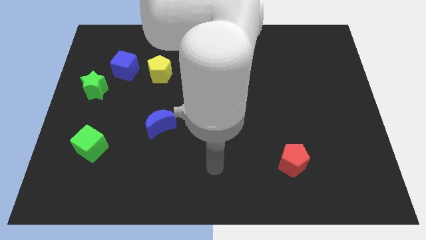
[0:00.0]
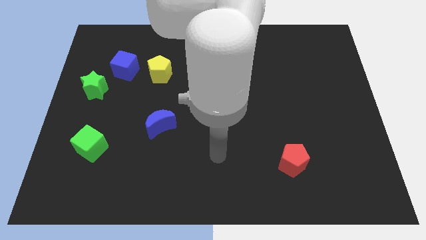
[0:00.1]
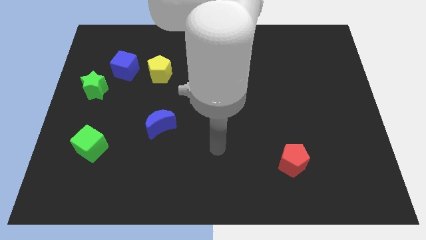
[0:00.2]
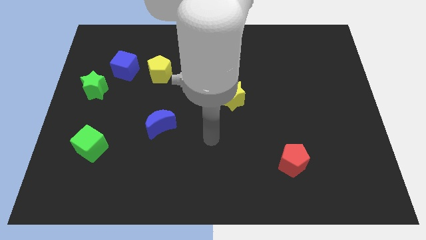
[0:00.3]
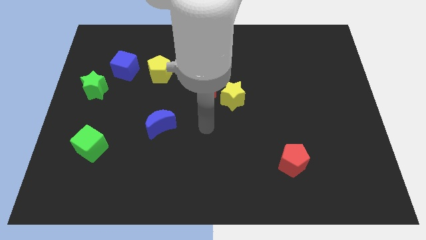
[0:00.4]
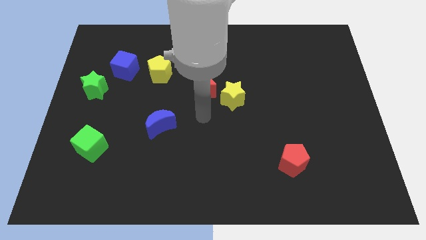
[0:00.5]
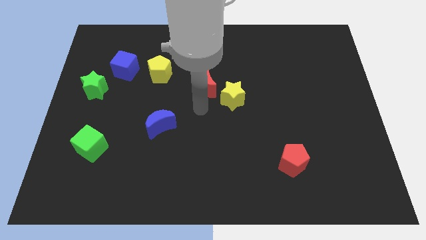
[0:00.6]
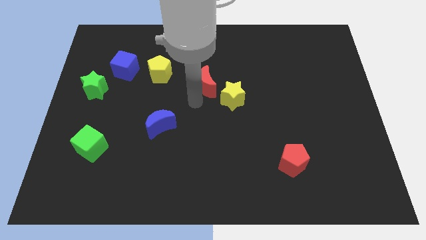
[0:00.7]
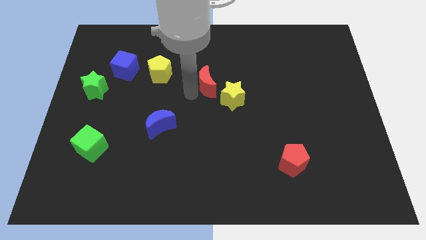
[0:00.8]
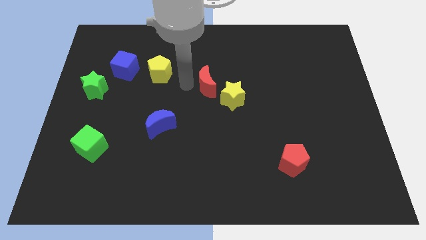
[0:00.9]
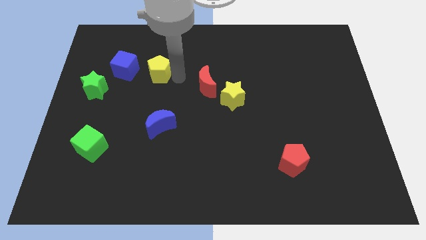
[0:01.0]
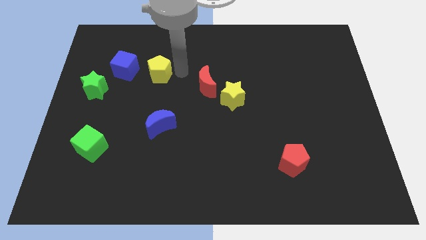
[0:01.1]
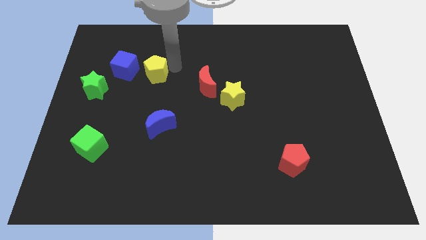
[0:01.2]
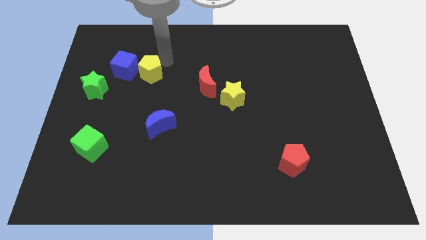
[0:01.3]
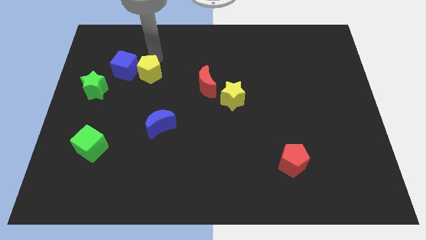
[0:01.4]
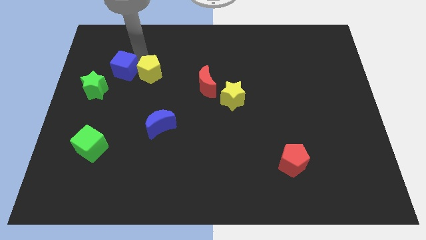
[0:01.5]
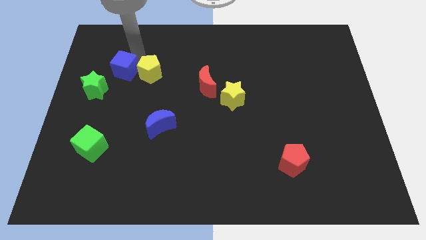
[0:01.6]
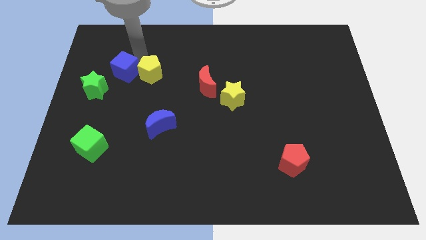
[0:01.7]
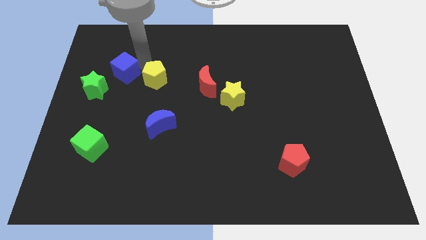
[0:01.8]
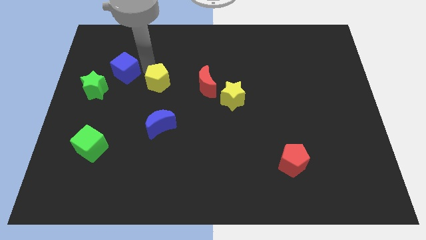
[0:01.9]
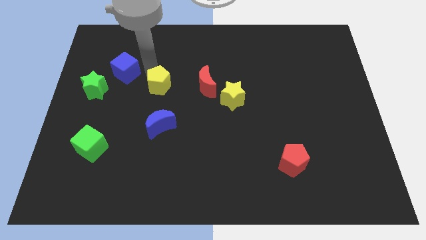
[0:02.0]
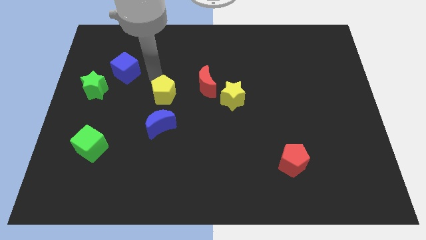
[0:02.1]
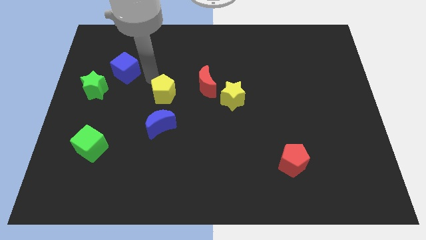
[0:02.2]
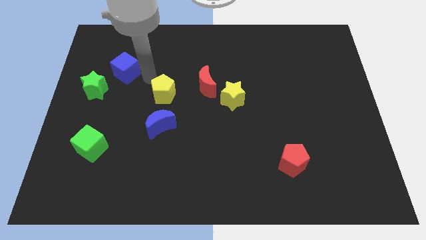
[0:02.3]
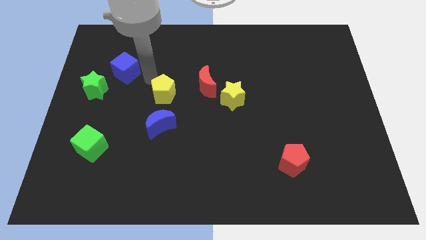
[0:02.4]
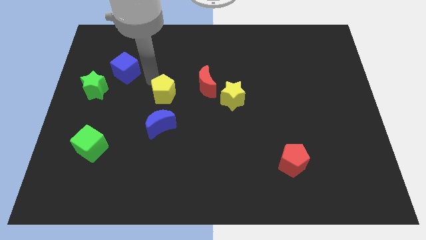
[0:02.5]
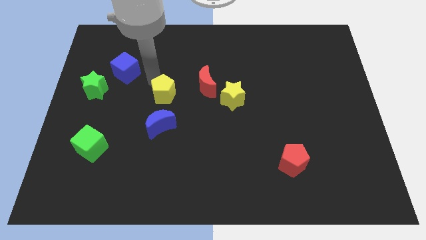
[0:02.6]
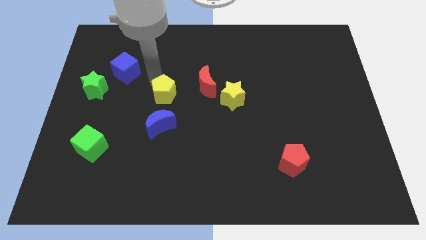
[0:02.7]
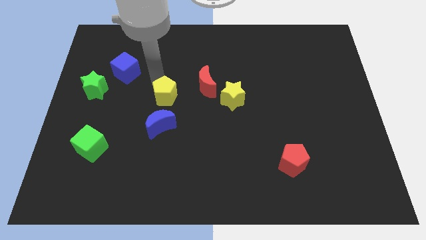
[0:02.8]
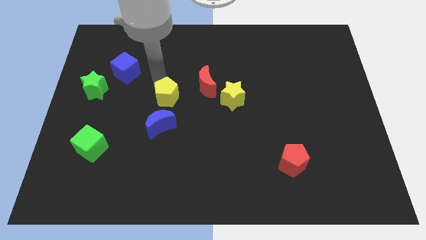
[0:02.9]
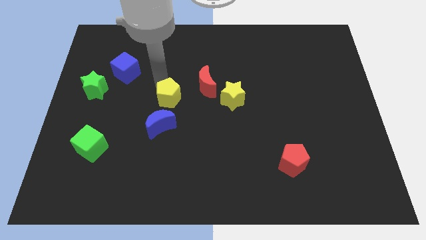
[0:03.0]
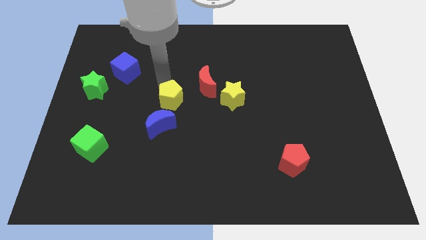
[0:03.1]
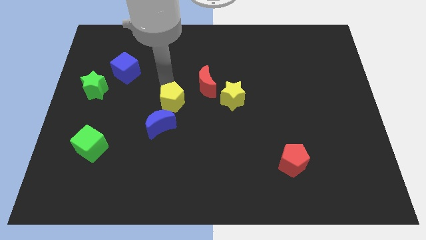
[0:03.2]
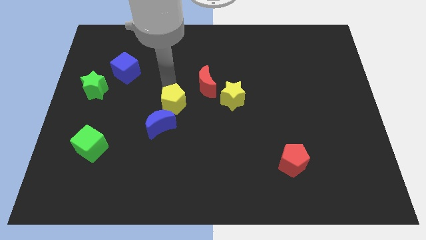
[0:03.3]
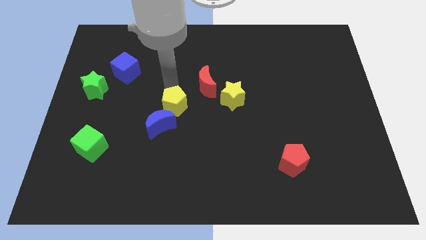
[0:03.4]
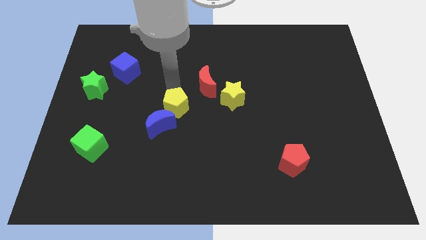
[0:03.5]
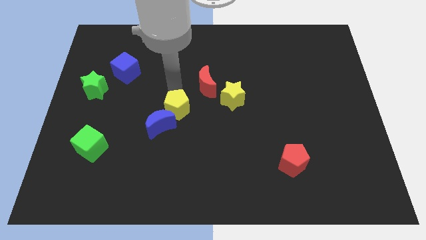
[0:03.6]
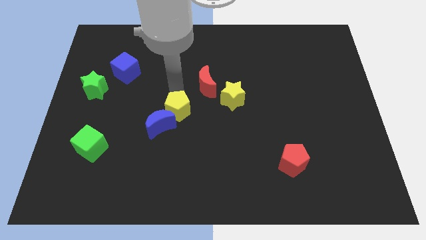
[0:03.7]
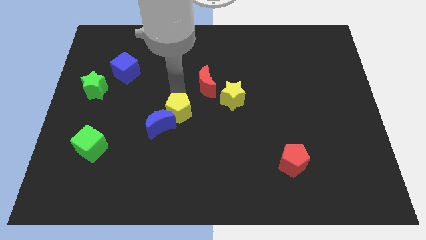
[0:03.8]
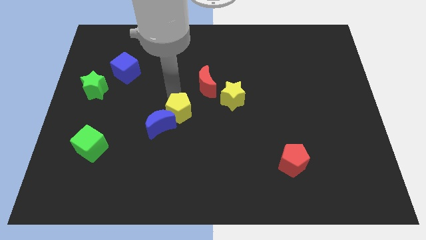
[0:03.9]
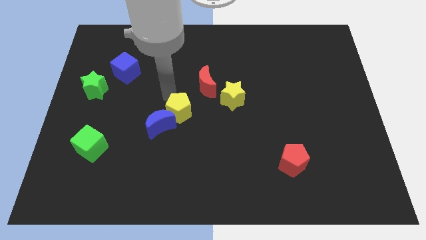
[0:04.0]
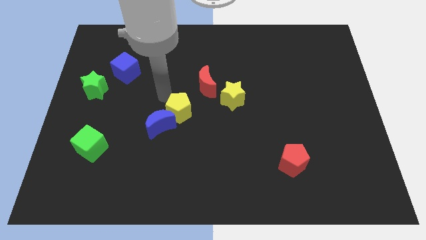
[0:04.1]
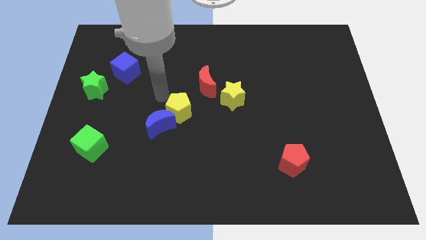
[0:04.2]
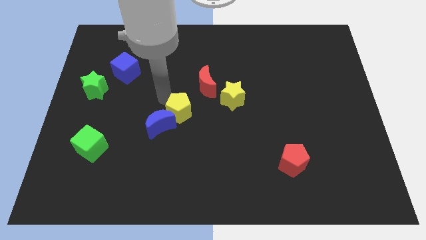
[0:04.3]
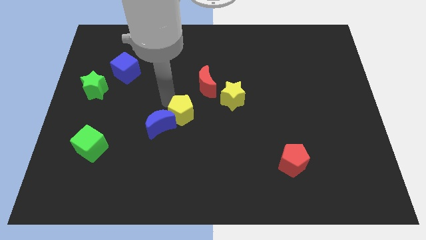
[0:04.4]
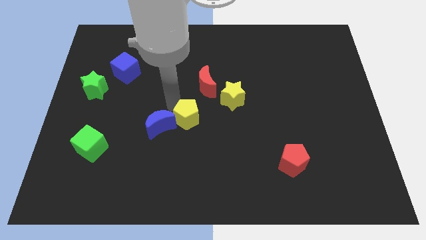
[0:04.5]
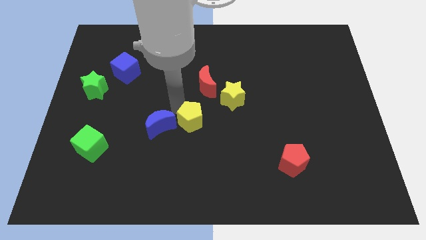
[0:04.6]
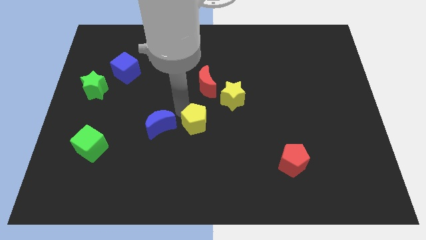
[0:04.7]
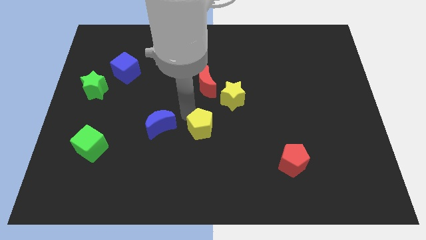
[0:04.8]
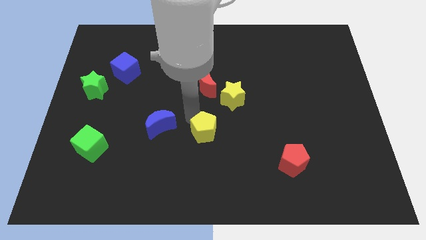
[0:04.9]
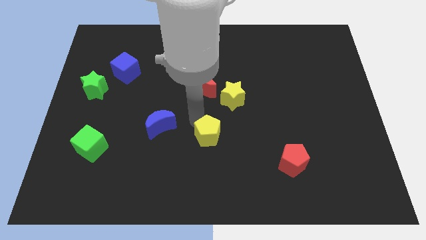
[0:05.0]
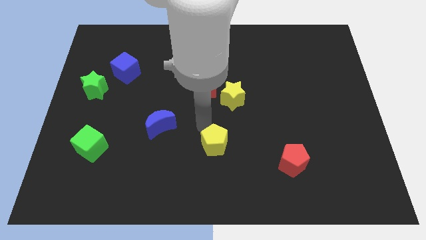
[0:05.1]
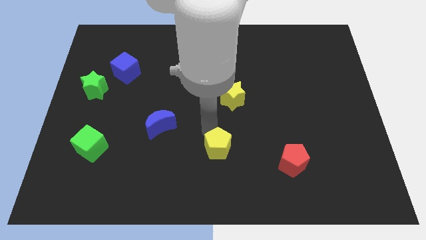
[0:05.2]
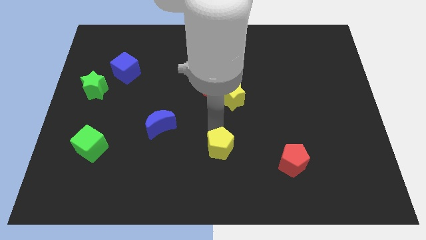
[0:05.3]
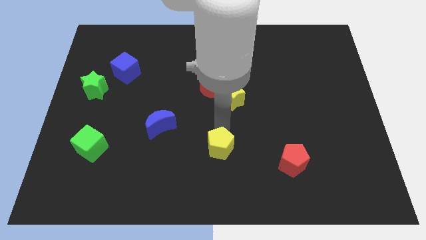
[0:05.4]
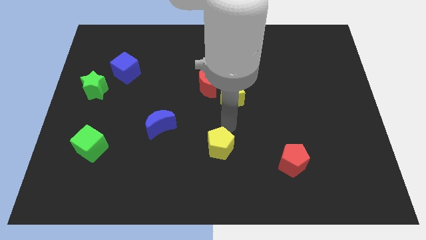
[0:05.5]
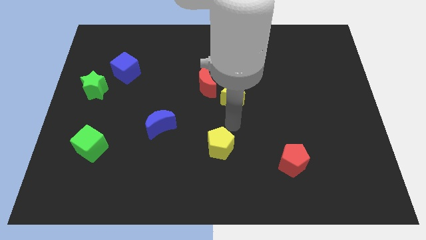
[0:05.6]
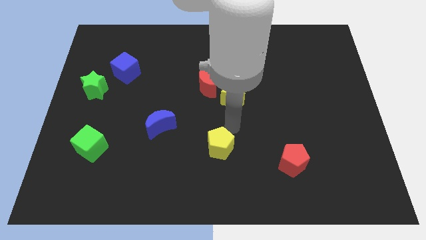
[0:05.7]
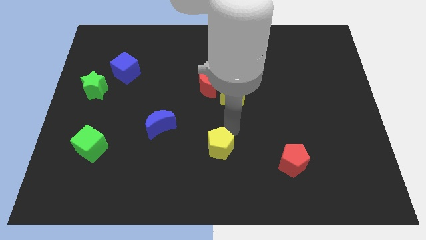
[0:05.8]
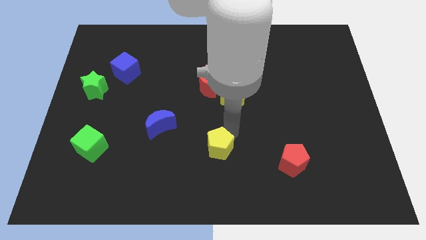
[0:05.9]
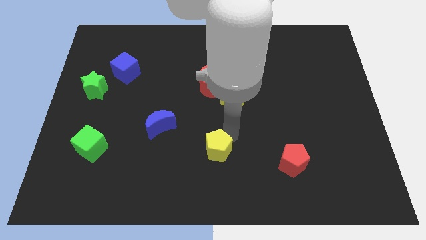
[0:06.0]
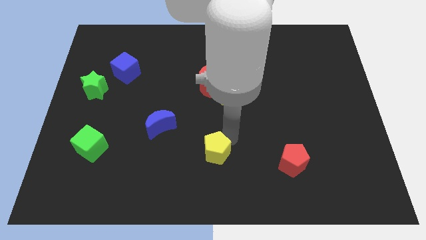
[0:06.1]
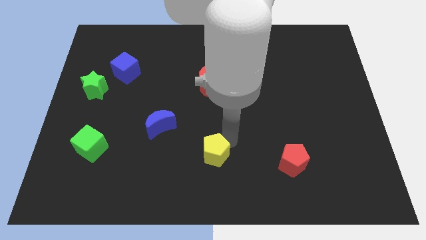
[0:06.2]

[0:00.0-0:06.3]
push the yellow pentagon to the bottom side

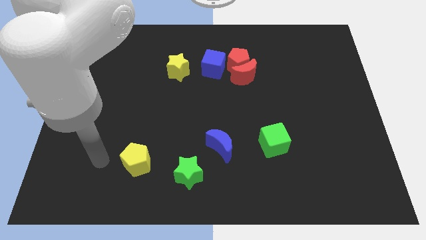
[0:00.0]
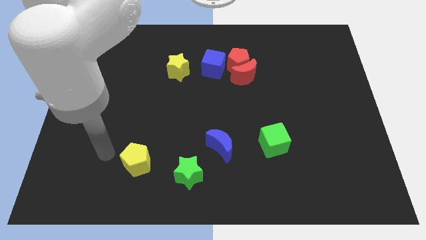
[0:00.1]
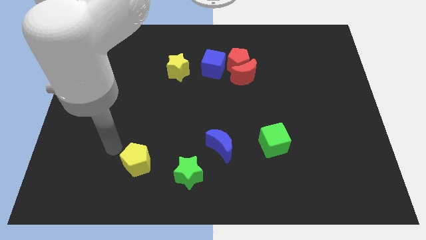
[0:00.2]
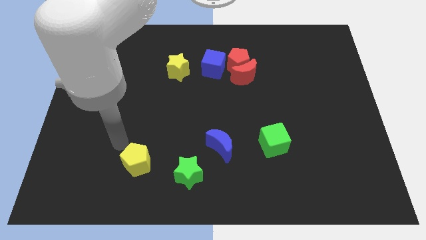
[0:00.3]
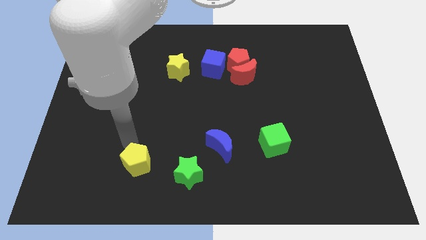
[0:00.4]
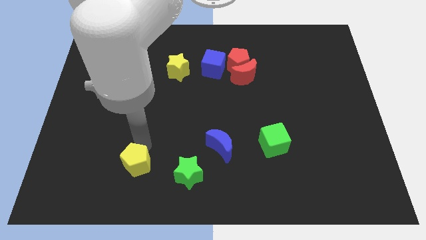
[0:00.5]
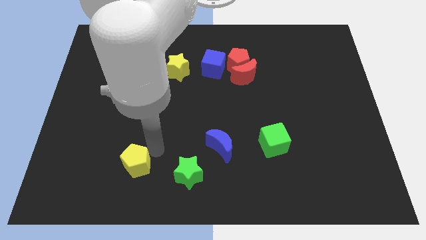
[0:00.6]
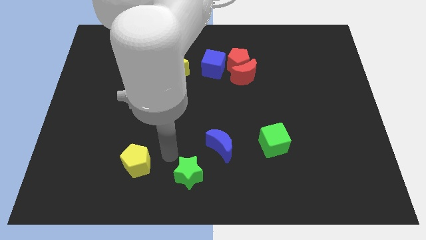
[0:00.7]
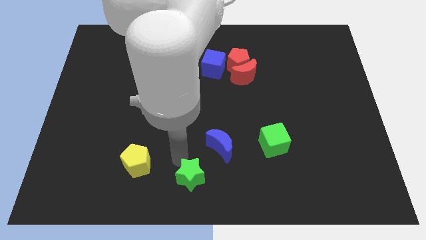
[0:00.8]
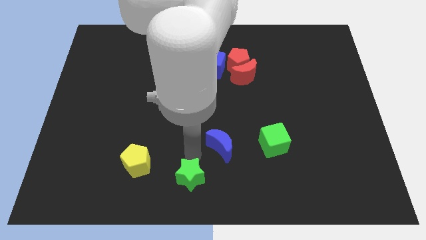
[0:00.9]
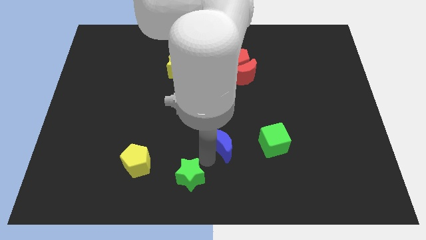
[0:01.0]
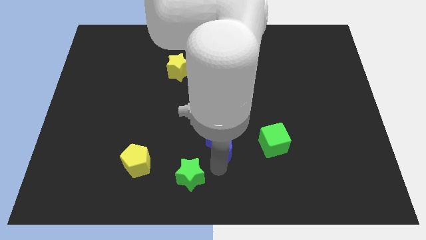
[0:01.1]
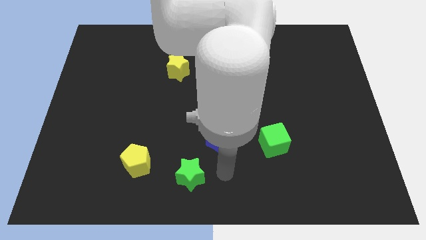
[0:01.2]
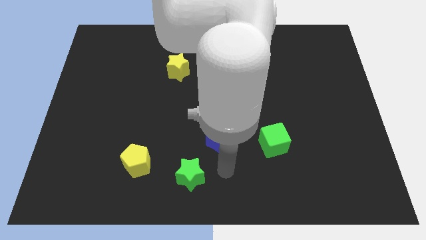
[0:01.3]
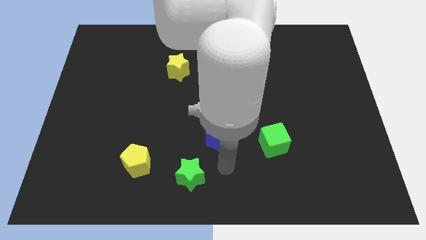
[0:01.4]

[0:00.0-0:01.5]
move the blue moon to the center of the board
